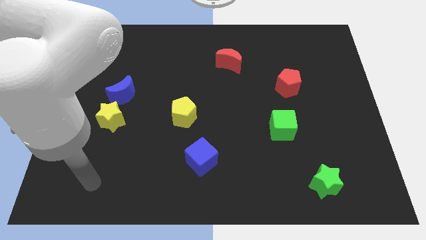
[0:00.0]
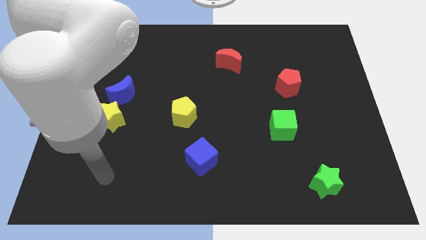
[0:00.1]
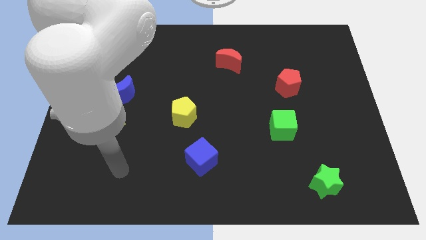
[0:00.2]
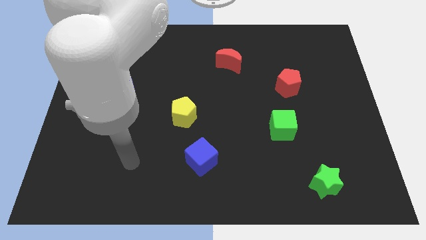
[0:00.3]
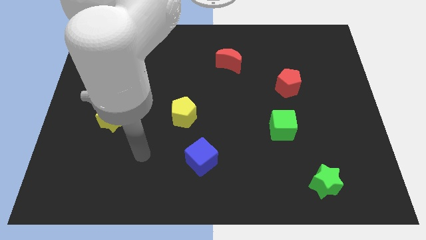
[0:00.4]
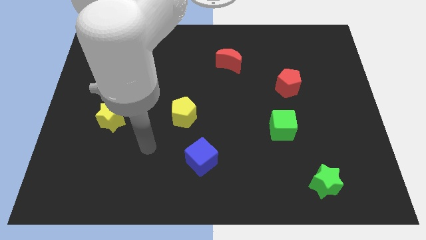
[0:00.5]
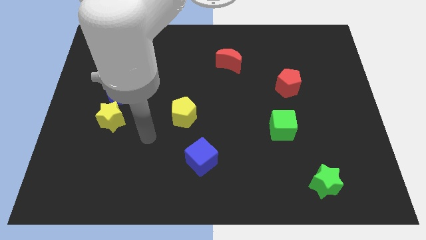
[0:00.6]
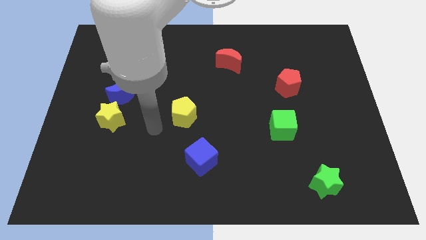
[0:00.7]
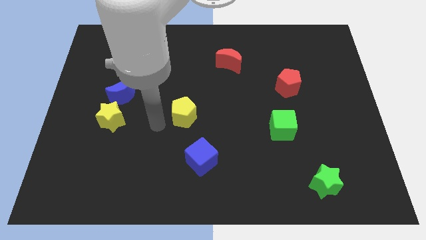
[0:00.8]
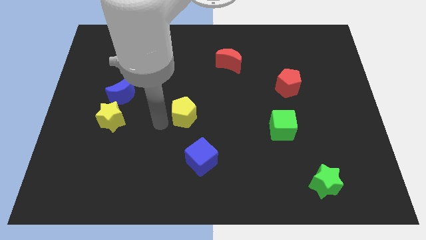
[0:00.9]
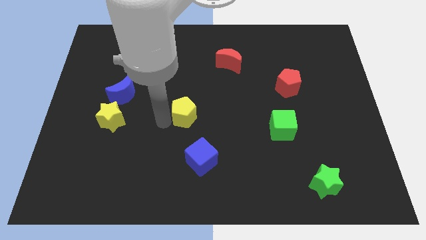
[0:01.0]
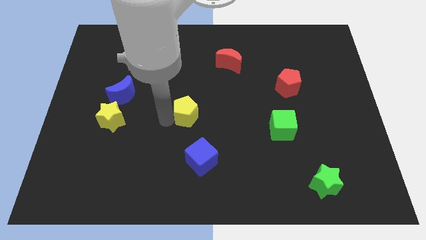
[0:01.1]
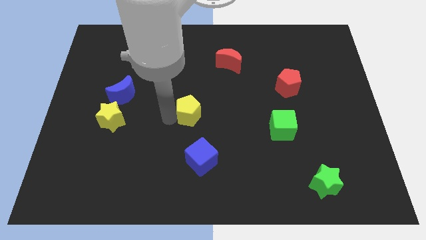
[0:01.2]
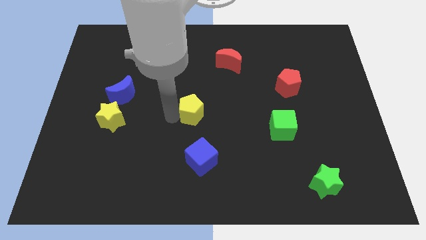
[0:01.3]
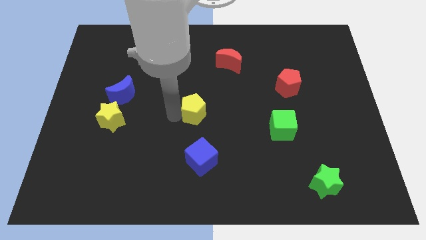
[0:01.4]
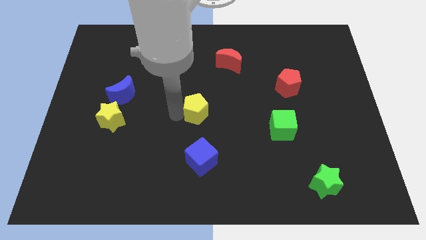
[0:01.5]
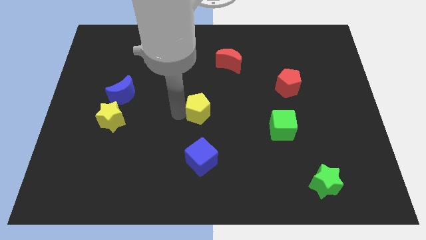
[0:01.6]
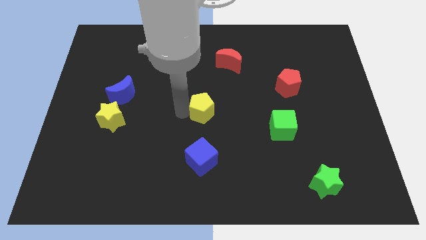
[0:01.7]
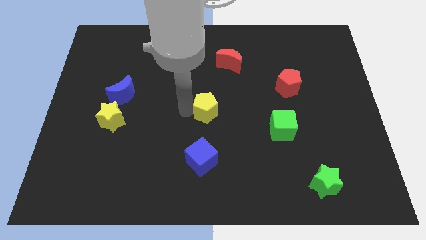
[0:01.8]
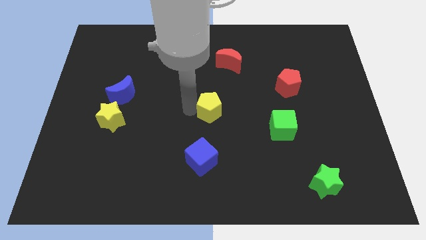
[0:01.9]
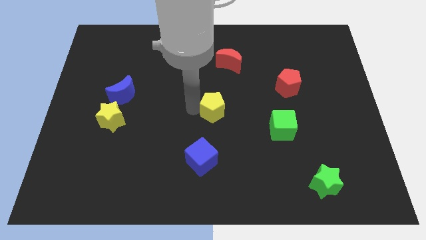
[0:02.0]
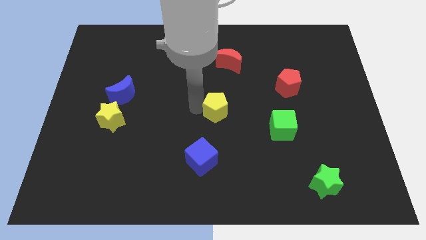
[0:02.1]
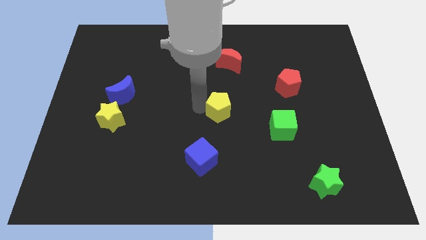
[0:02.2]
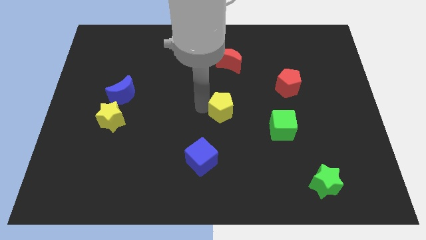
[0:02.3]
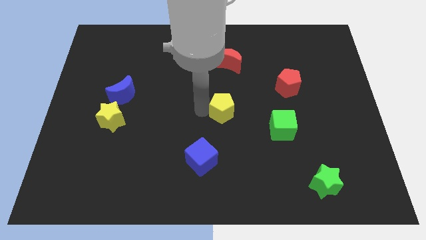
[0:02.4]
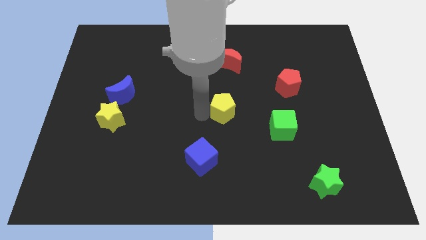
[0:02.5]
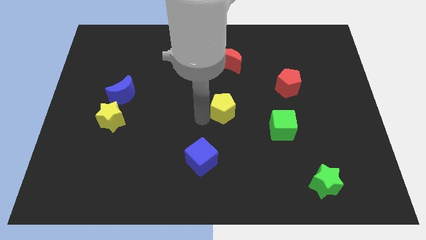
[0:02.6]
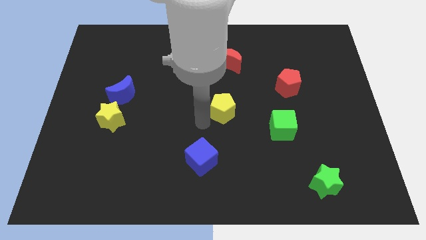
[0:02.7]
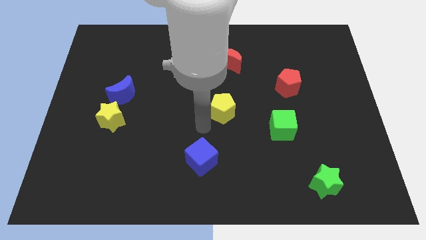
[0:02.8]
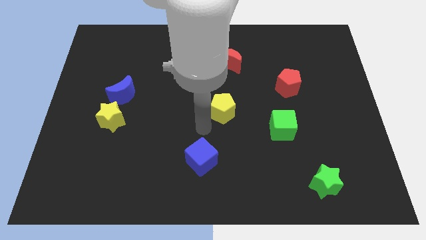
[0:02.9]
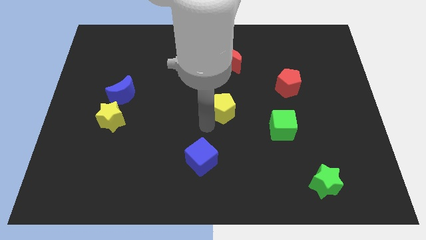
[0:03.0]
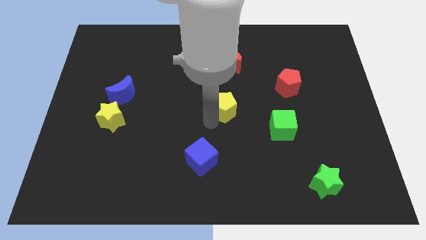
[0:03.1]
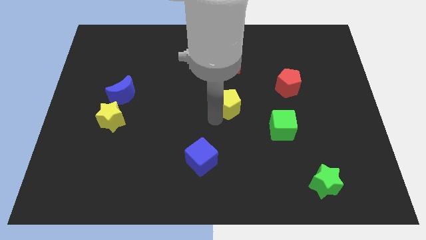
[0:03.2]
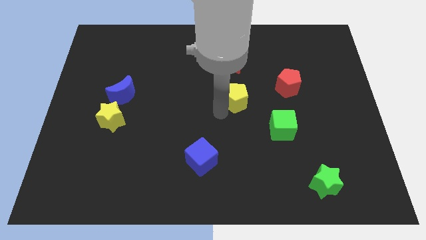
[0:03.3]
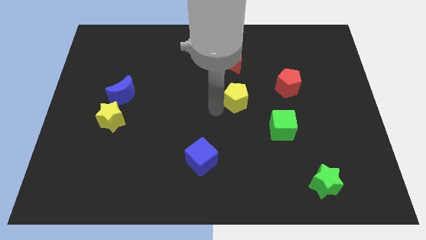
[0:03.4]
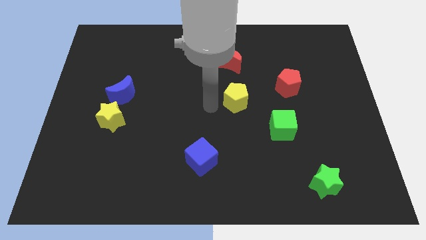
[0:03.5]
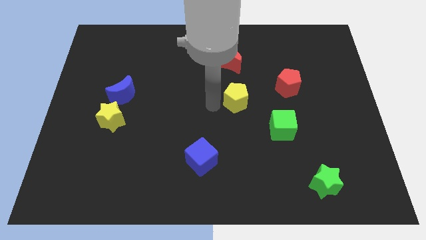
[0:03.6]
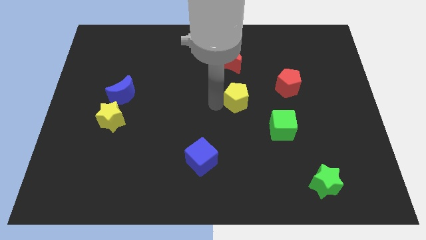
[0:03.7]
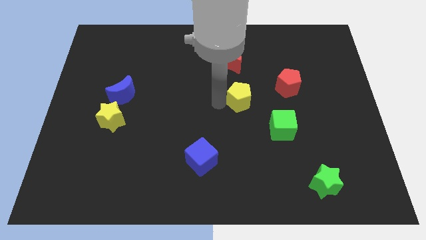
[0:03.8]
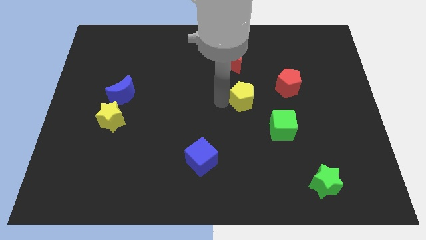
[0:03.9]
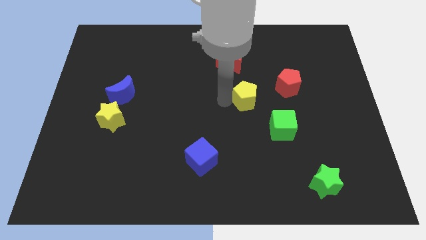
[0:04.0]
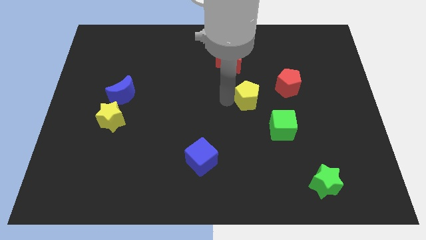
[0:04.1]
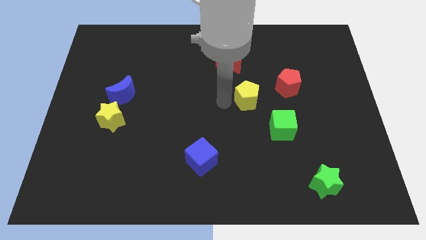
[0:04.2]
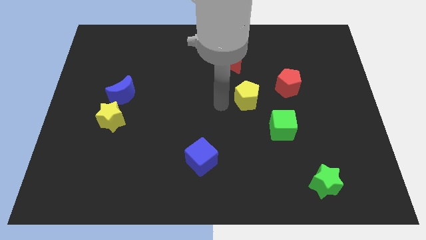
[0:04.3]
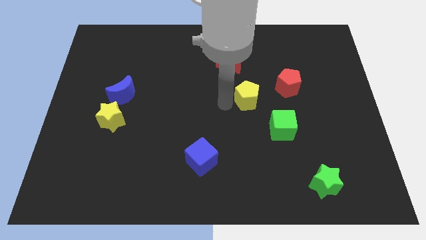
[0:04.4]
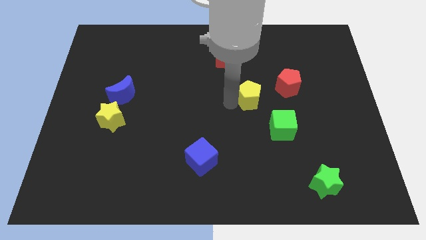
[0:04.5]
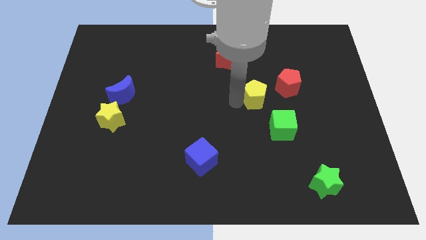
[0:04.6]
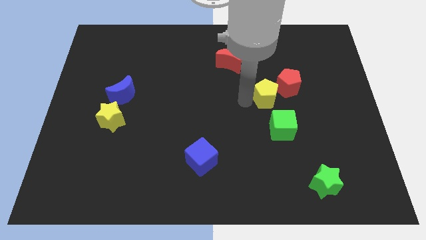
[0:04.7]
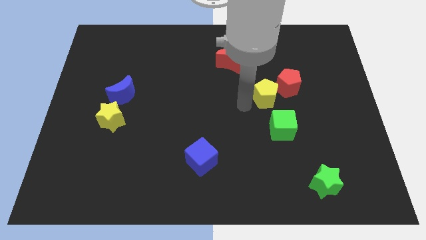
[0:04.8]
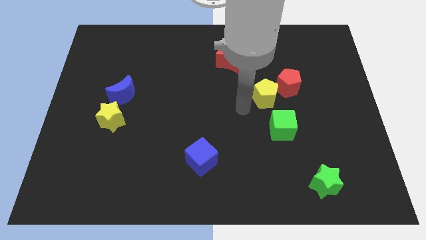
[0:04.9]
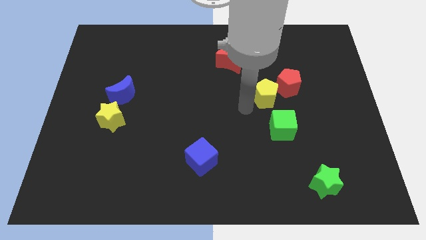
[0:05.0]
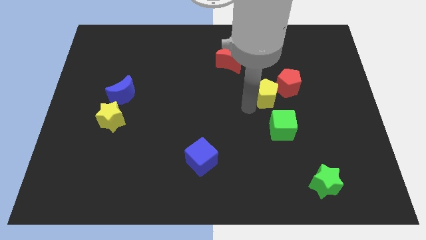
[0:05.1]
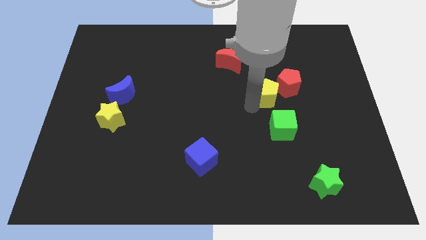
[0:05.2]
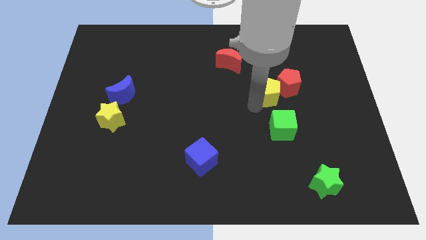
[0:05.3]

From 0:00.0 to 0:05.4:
slide the yellow pentagon next to the red pentagon

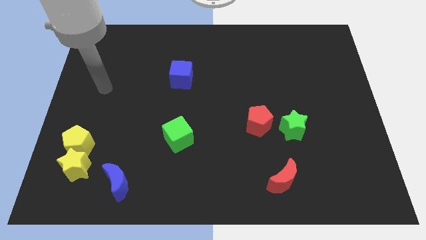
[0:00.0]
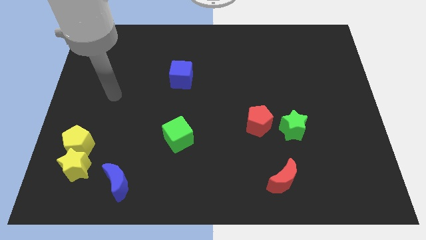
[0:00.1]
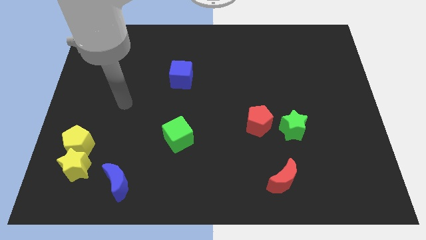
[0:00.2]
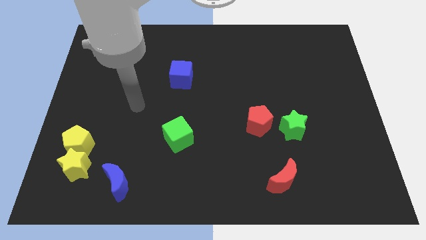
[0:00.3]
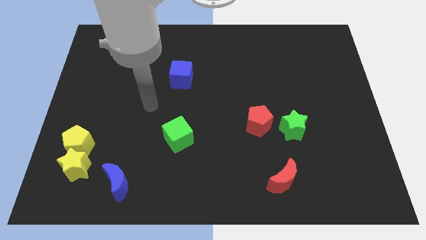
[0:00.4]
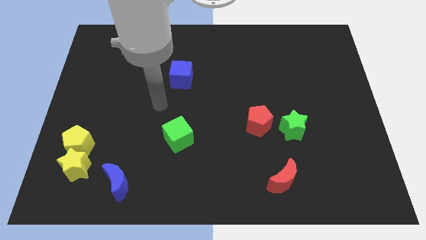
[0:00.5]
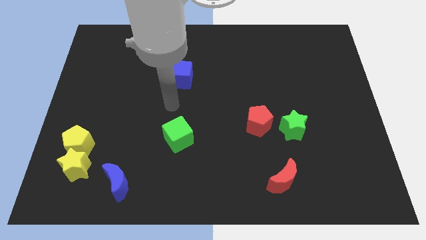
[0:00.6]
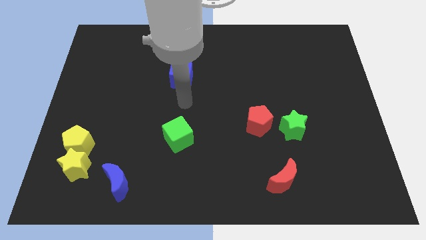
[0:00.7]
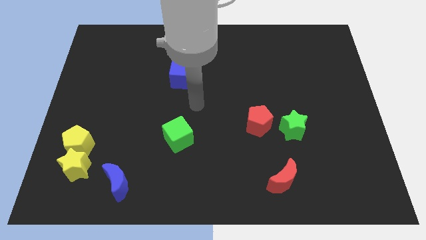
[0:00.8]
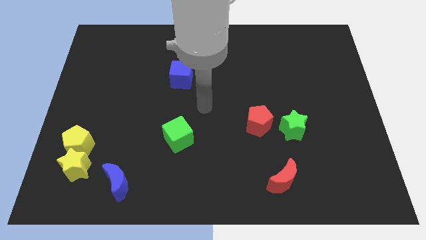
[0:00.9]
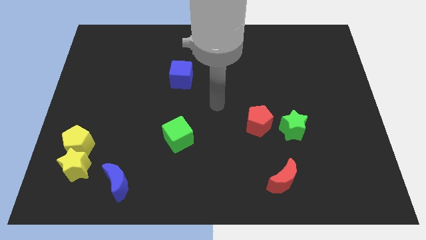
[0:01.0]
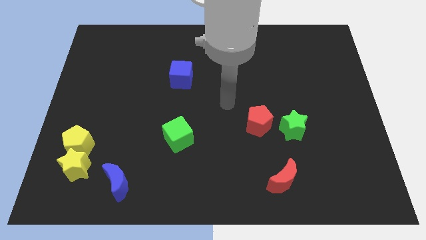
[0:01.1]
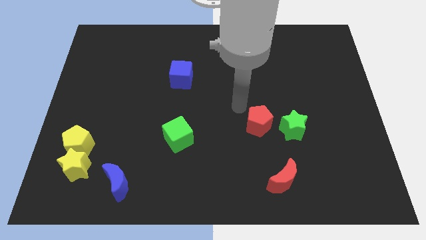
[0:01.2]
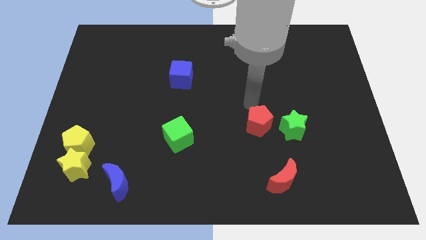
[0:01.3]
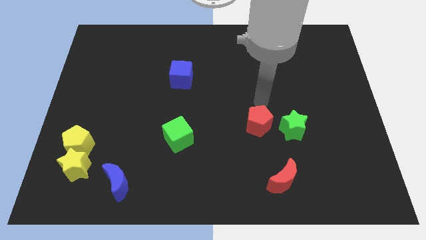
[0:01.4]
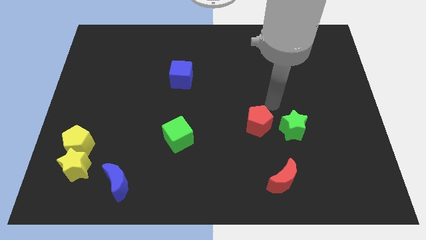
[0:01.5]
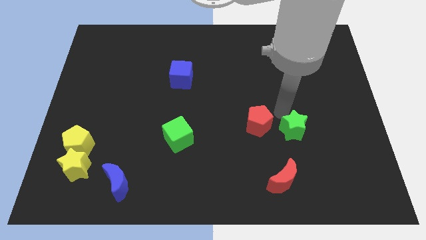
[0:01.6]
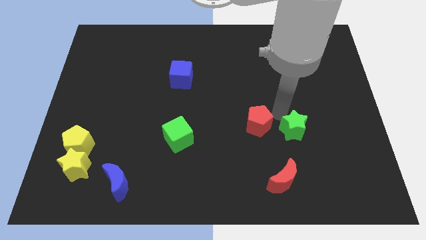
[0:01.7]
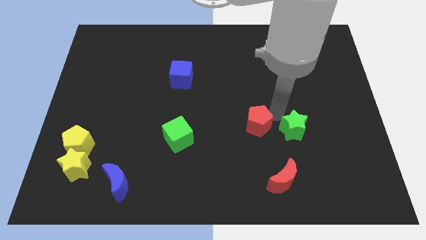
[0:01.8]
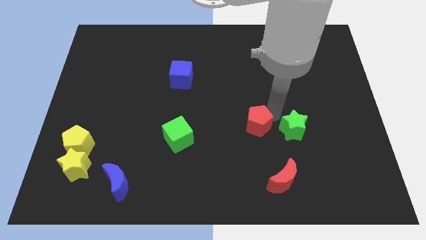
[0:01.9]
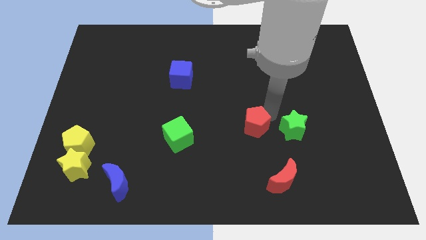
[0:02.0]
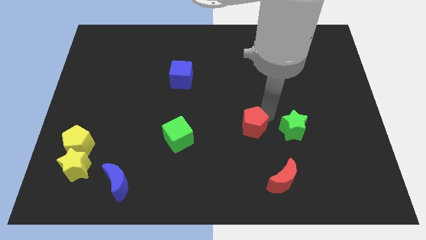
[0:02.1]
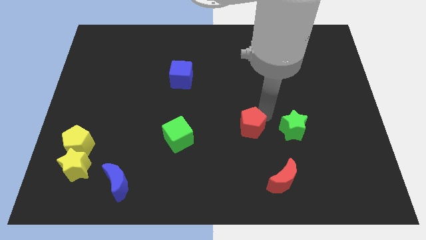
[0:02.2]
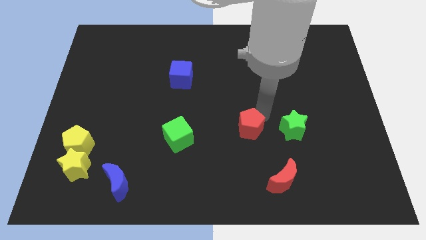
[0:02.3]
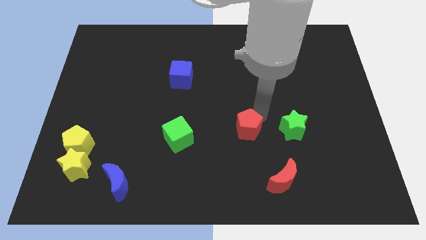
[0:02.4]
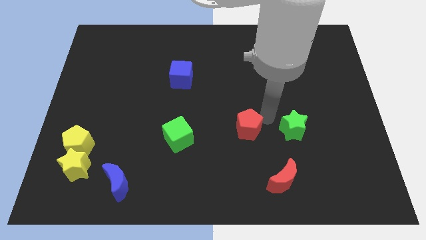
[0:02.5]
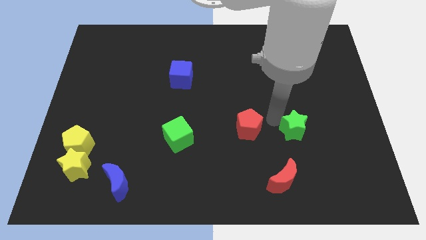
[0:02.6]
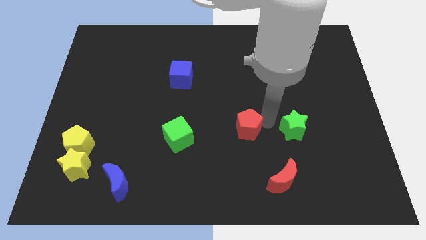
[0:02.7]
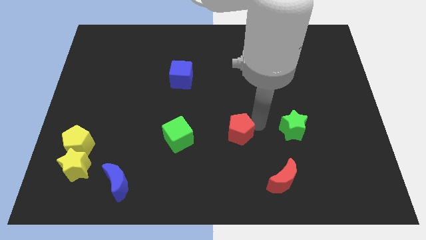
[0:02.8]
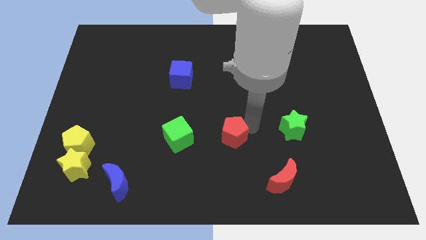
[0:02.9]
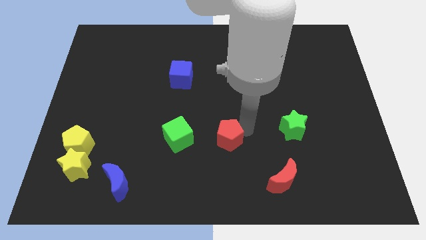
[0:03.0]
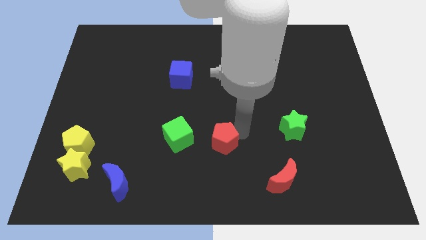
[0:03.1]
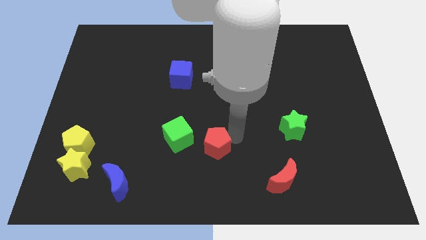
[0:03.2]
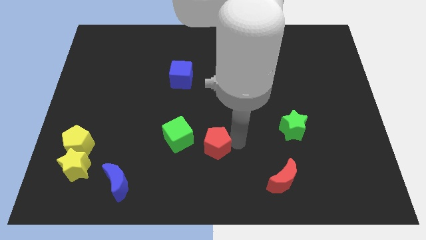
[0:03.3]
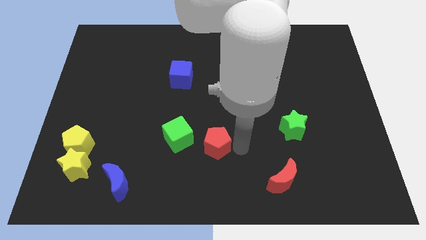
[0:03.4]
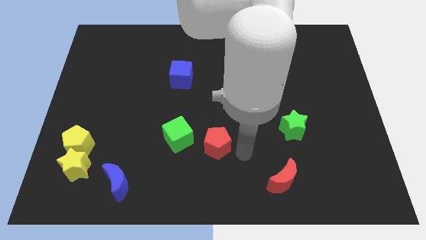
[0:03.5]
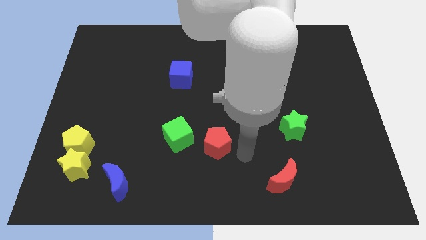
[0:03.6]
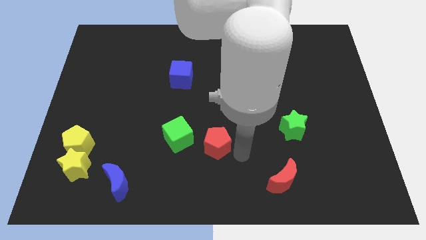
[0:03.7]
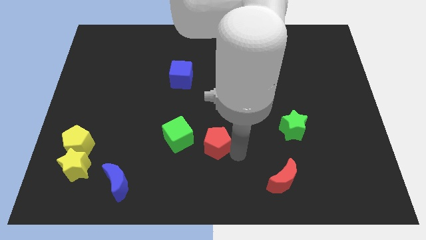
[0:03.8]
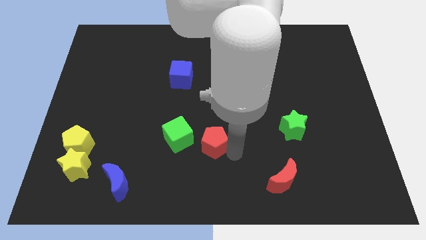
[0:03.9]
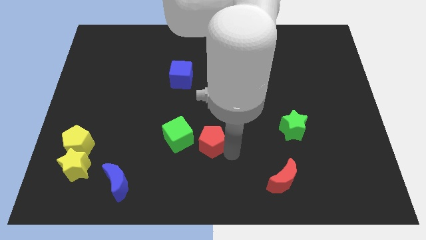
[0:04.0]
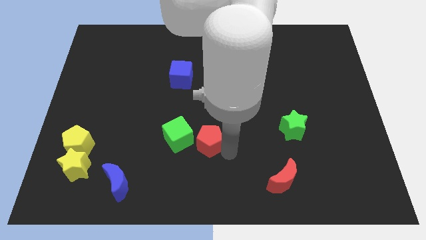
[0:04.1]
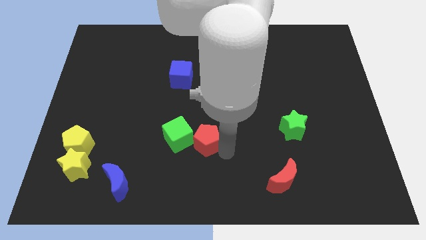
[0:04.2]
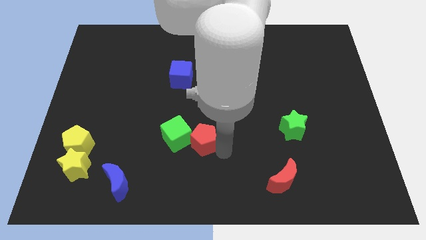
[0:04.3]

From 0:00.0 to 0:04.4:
push the red pentagon towards the green cube
